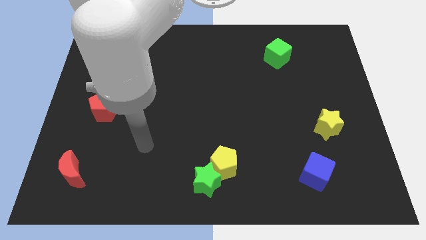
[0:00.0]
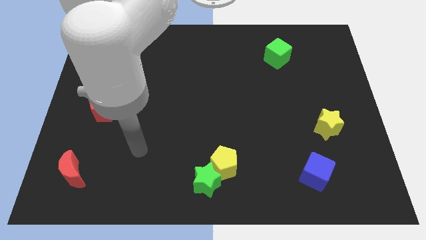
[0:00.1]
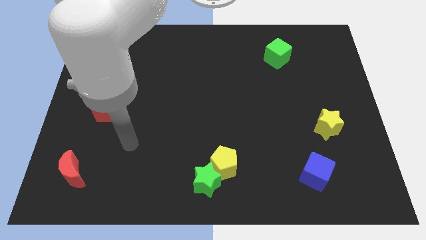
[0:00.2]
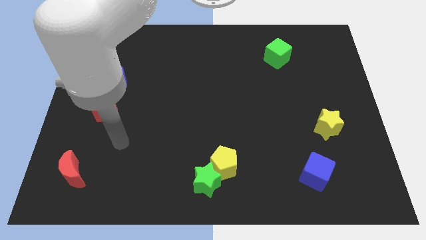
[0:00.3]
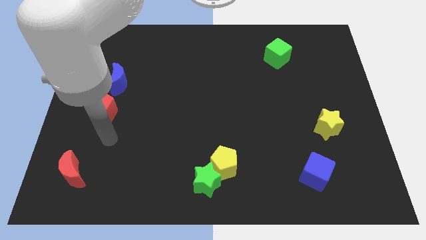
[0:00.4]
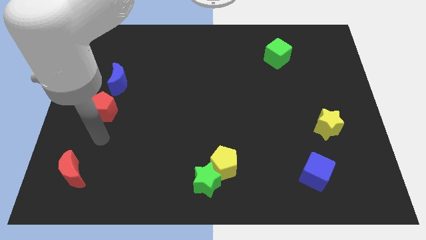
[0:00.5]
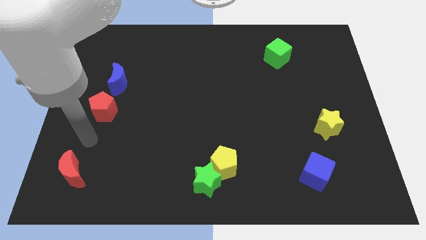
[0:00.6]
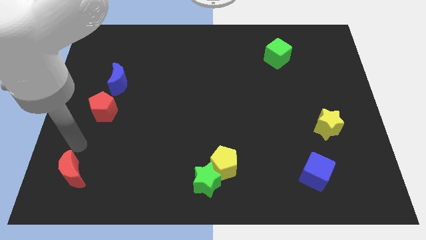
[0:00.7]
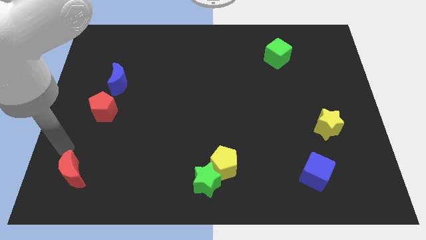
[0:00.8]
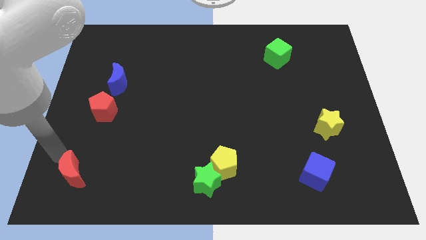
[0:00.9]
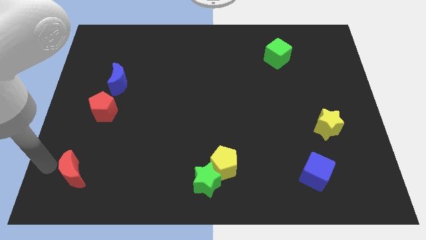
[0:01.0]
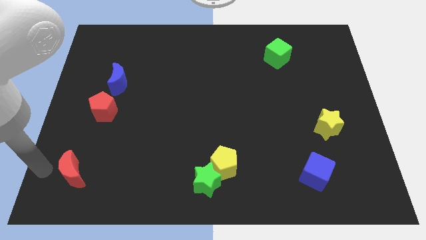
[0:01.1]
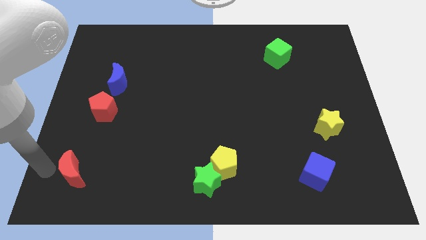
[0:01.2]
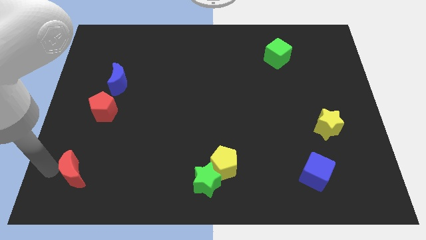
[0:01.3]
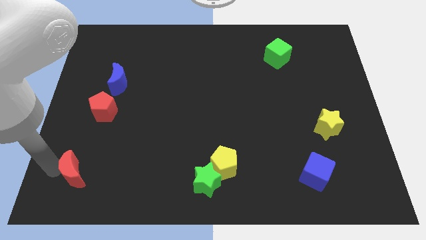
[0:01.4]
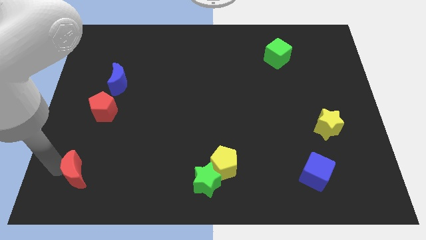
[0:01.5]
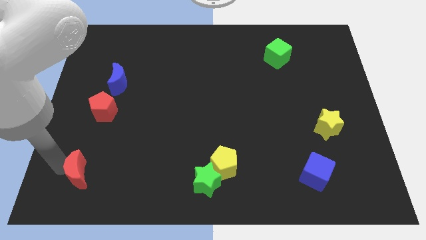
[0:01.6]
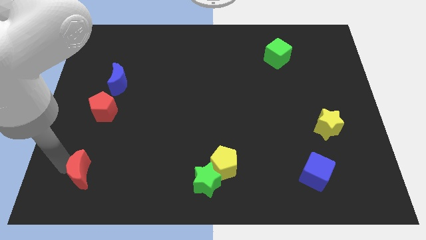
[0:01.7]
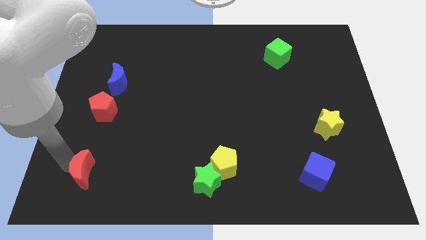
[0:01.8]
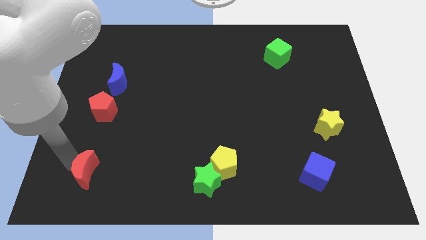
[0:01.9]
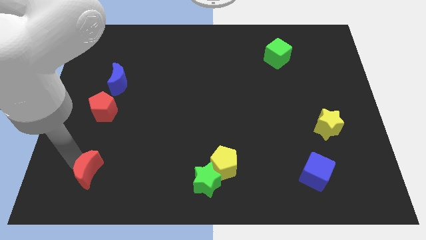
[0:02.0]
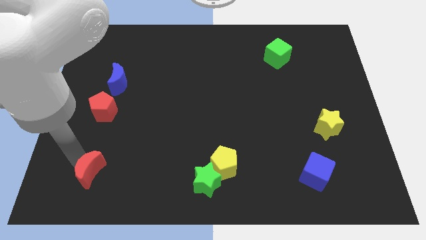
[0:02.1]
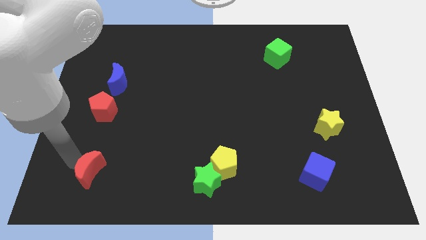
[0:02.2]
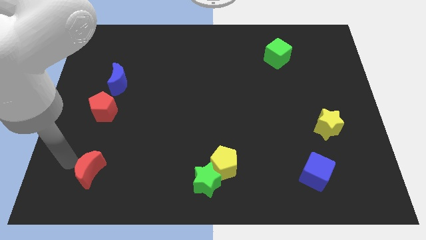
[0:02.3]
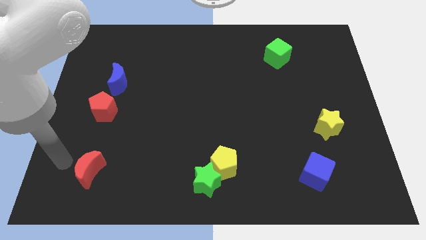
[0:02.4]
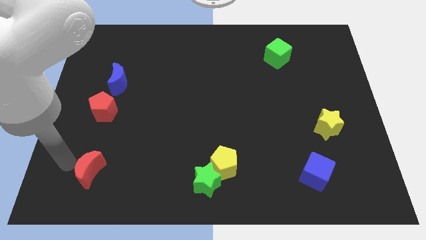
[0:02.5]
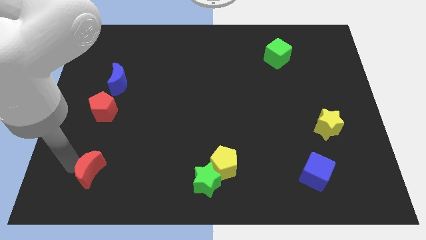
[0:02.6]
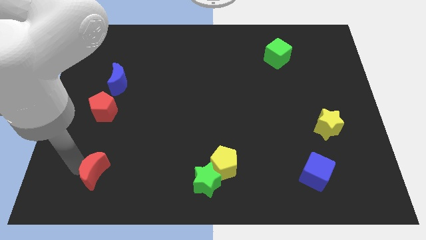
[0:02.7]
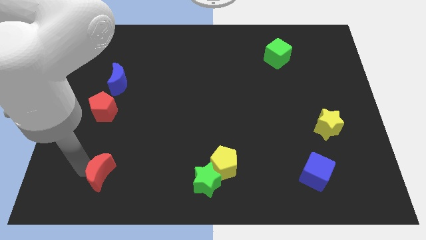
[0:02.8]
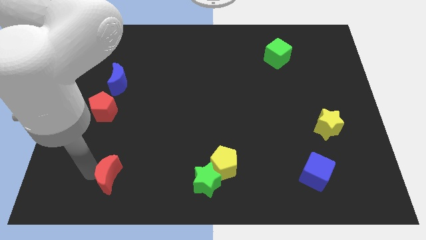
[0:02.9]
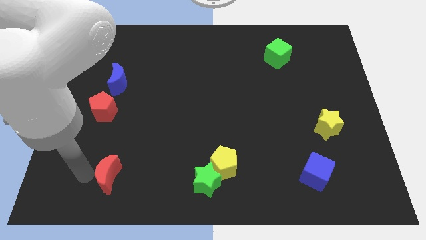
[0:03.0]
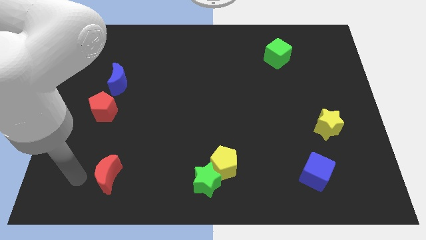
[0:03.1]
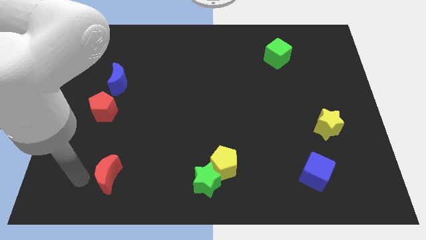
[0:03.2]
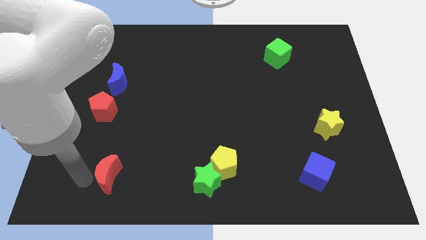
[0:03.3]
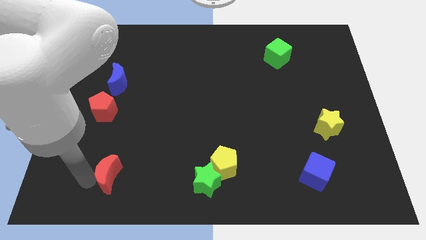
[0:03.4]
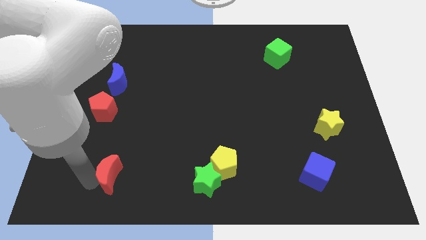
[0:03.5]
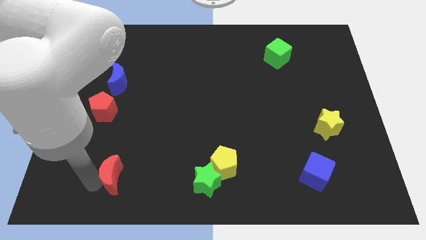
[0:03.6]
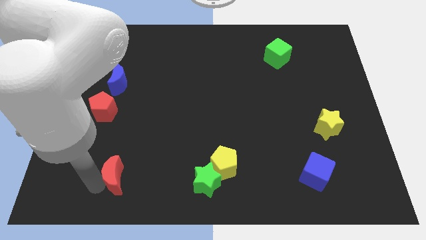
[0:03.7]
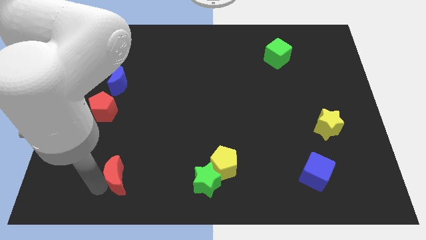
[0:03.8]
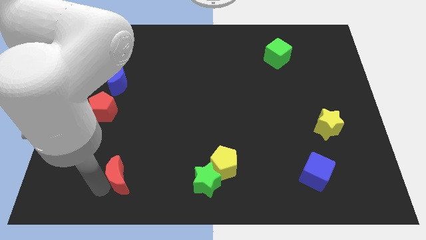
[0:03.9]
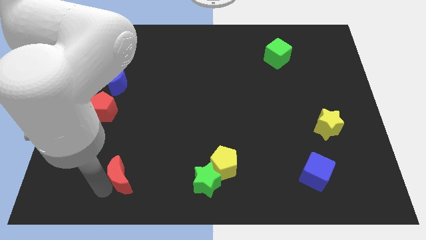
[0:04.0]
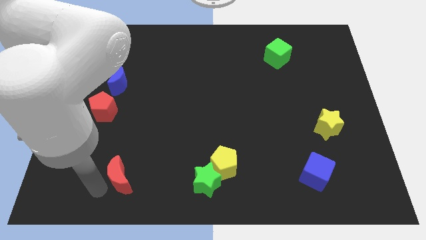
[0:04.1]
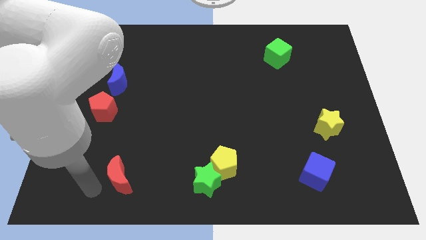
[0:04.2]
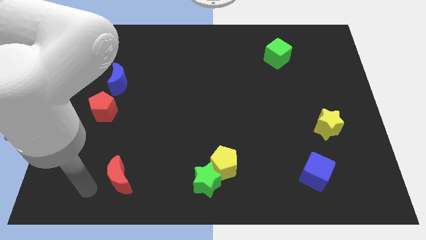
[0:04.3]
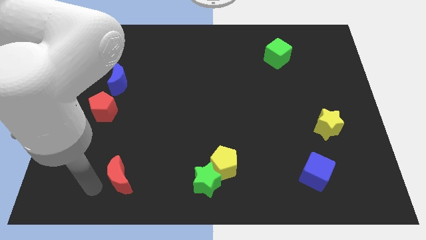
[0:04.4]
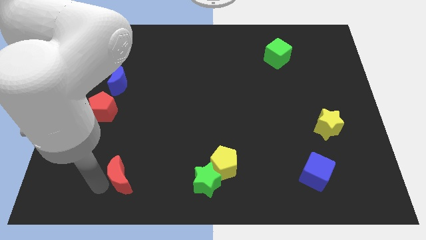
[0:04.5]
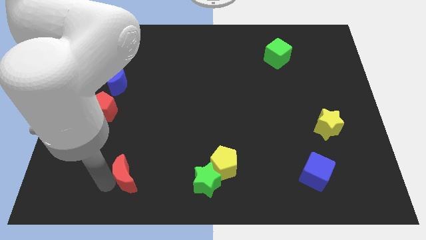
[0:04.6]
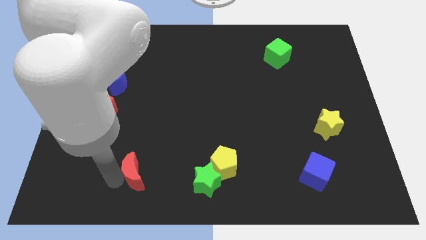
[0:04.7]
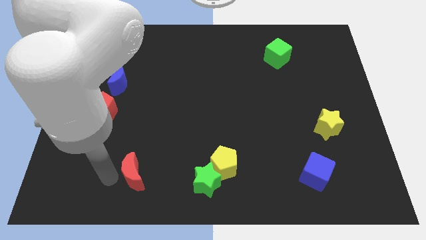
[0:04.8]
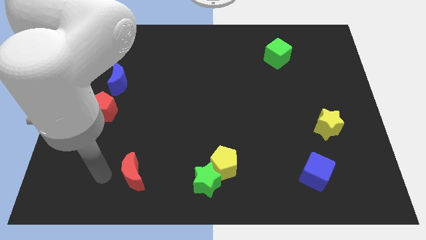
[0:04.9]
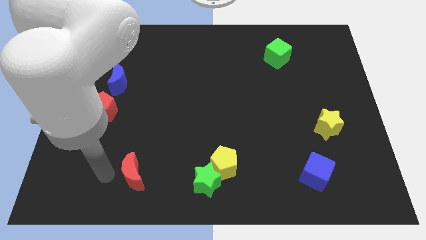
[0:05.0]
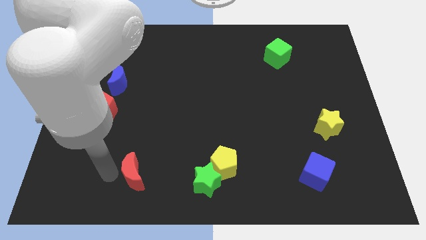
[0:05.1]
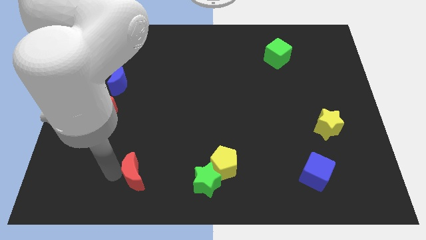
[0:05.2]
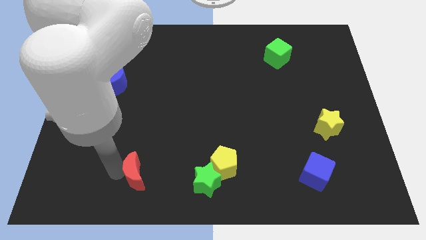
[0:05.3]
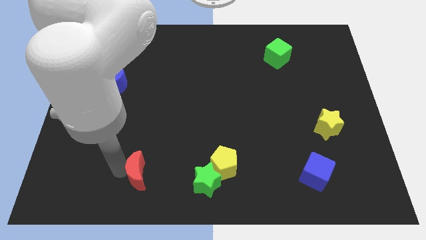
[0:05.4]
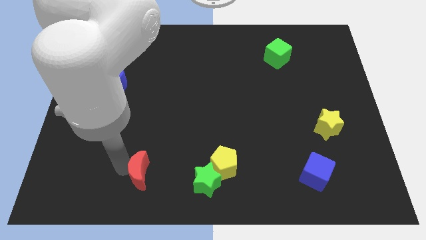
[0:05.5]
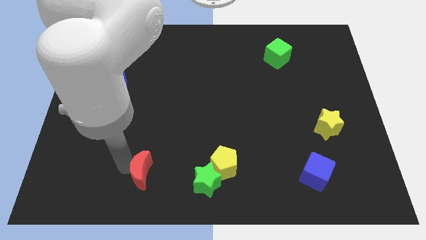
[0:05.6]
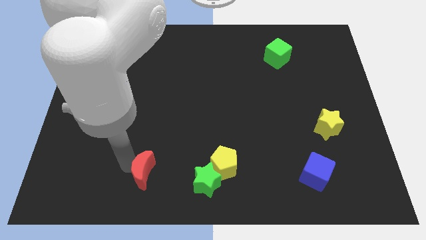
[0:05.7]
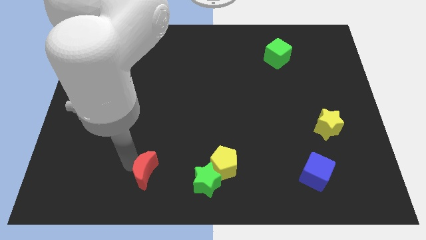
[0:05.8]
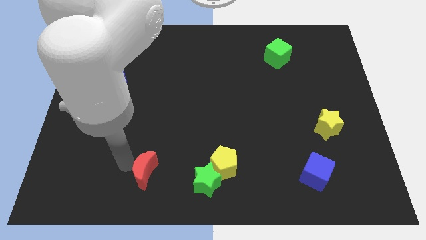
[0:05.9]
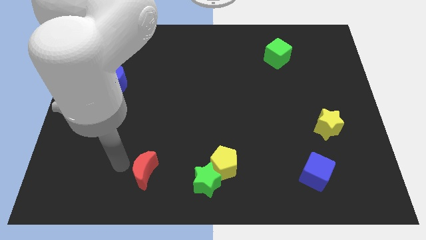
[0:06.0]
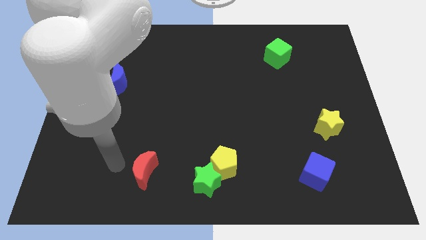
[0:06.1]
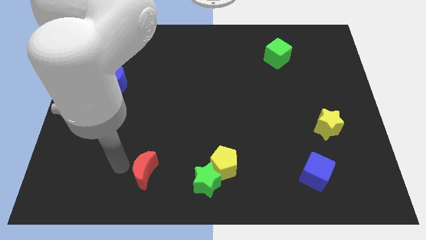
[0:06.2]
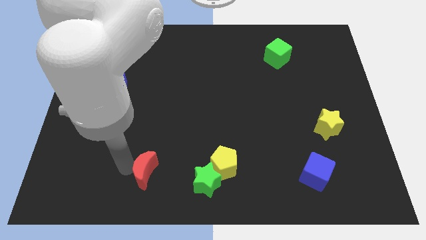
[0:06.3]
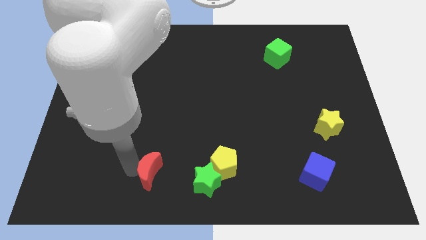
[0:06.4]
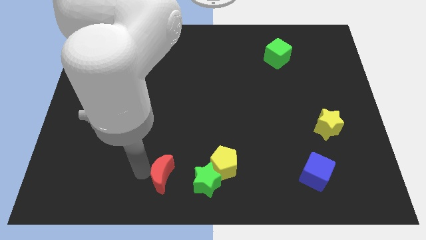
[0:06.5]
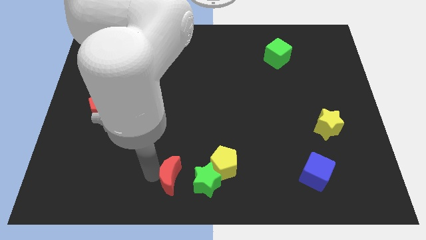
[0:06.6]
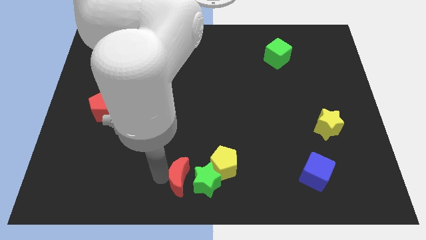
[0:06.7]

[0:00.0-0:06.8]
push the red moon close to the green star

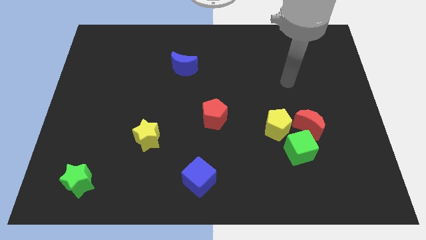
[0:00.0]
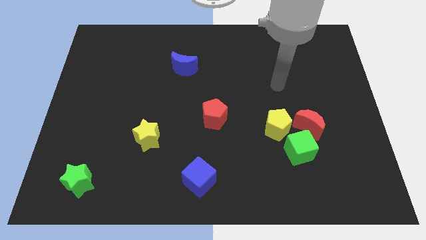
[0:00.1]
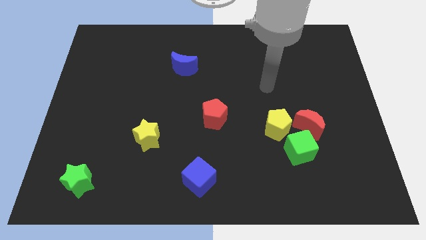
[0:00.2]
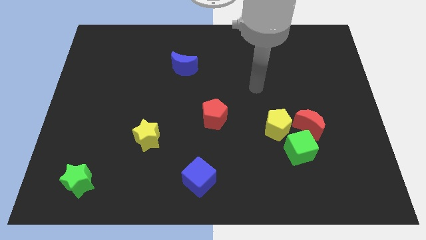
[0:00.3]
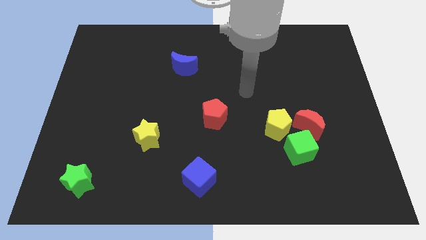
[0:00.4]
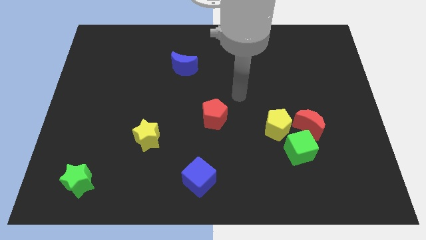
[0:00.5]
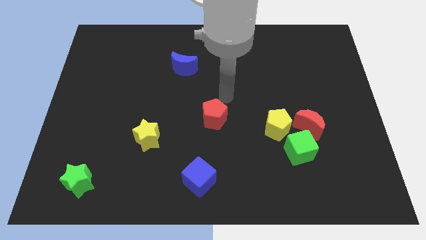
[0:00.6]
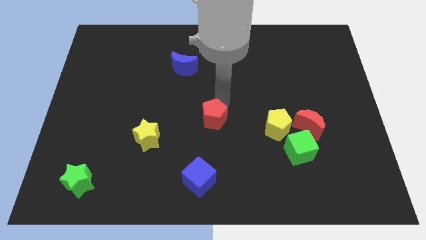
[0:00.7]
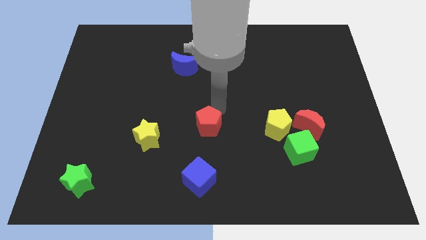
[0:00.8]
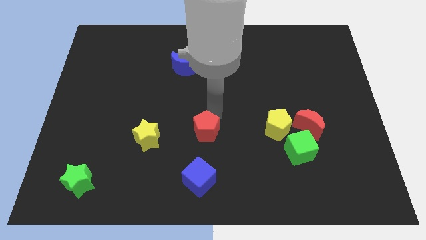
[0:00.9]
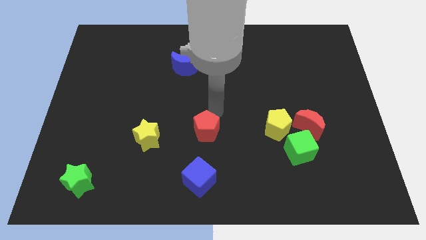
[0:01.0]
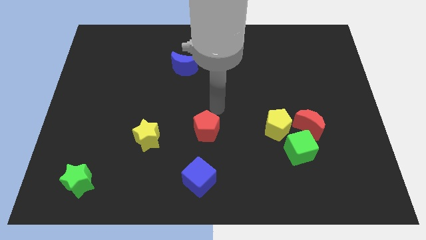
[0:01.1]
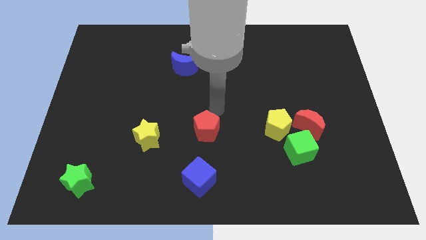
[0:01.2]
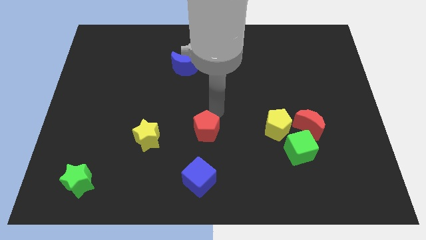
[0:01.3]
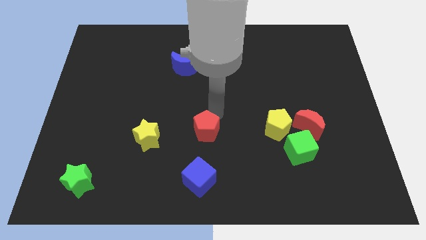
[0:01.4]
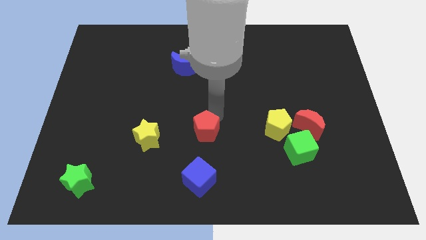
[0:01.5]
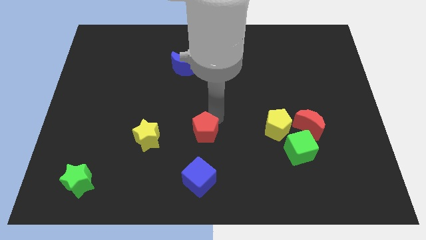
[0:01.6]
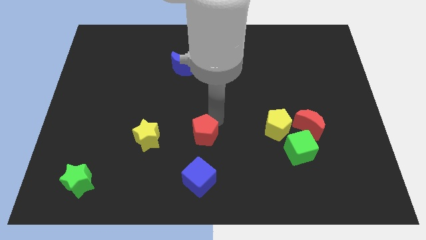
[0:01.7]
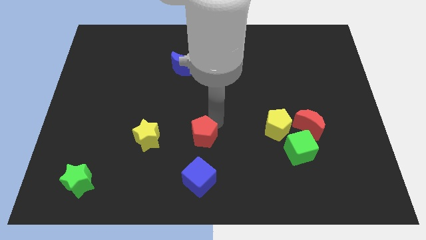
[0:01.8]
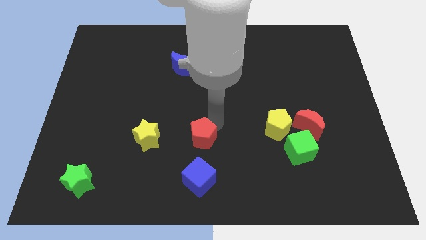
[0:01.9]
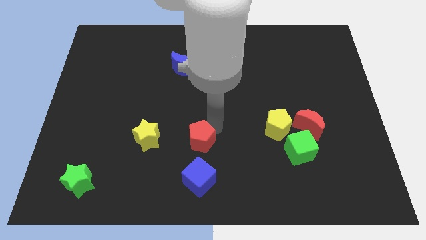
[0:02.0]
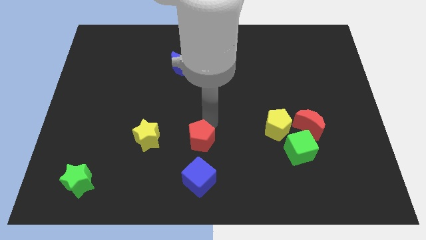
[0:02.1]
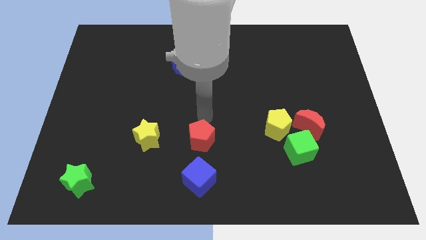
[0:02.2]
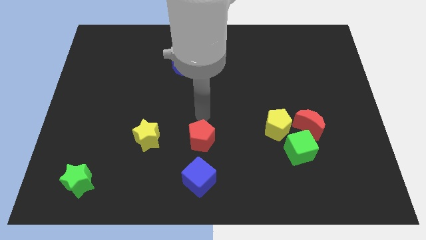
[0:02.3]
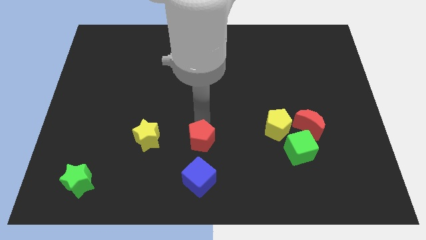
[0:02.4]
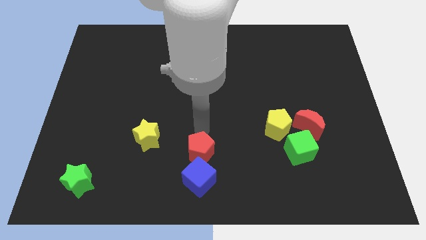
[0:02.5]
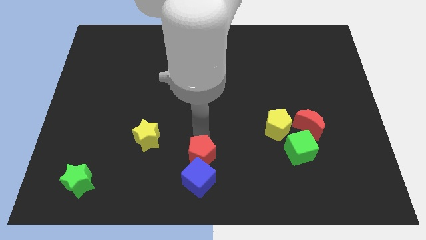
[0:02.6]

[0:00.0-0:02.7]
slide the red pentagon next to the blue cube
